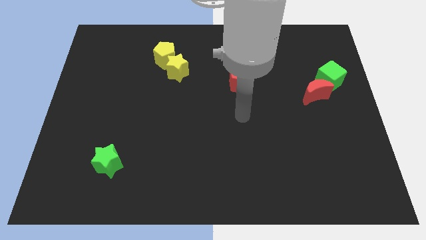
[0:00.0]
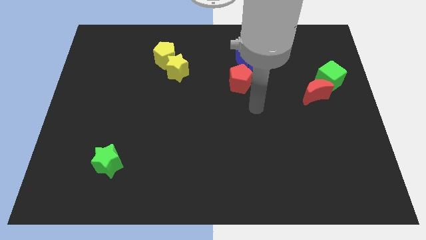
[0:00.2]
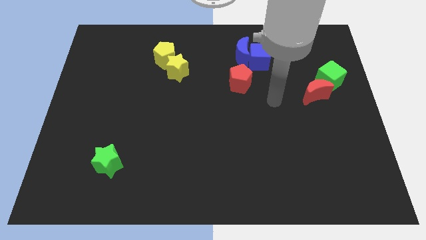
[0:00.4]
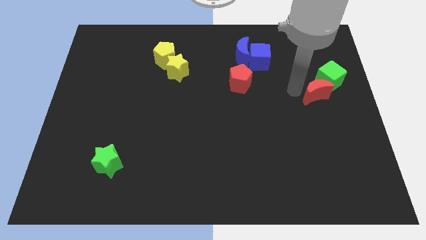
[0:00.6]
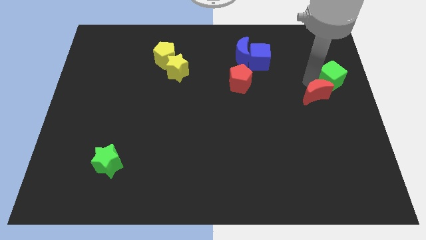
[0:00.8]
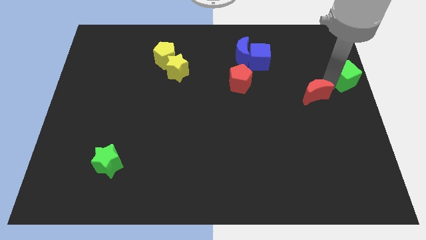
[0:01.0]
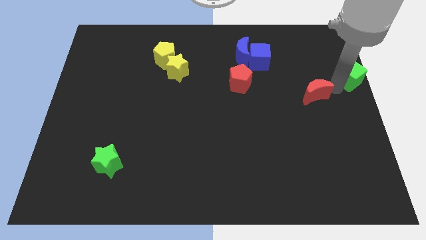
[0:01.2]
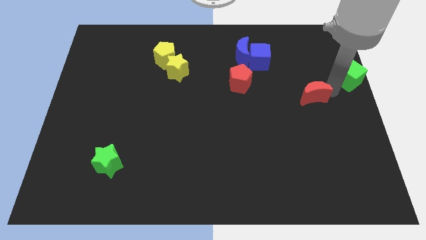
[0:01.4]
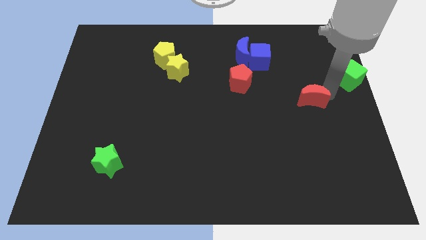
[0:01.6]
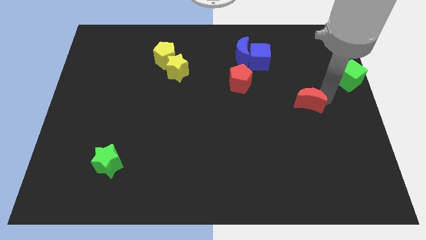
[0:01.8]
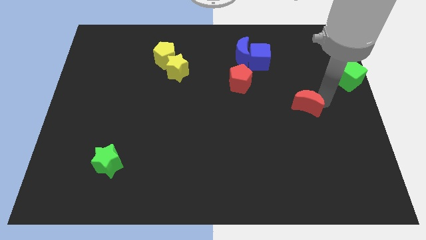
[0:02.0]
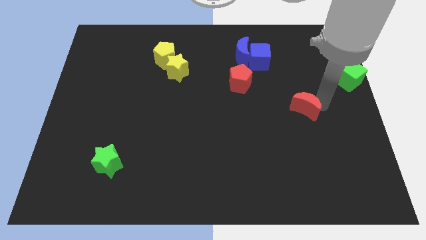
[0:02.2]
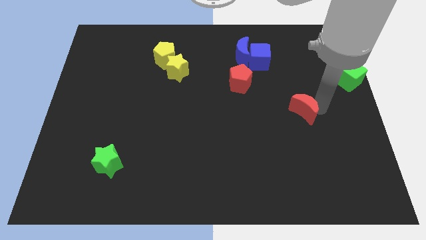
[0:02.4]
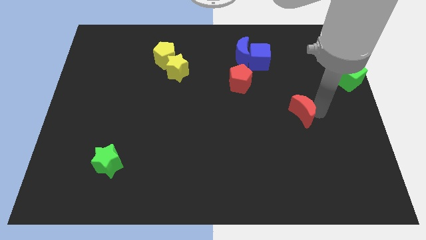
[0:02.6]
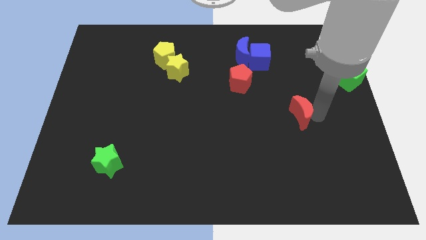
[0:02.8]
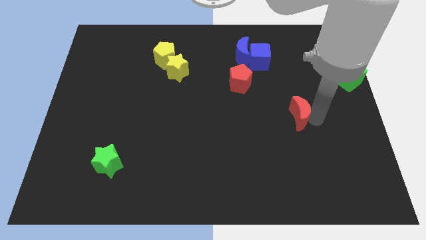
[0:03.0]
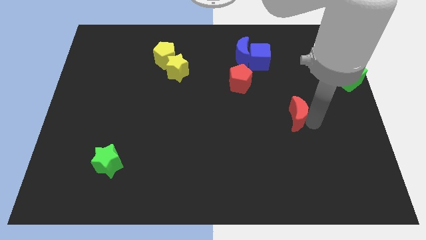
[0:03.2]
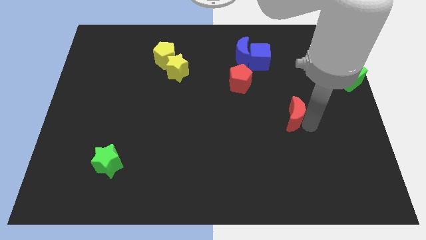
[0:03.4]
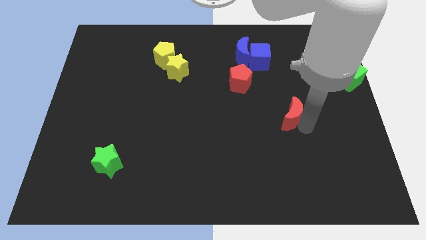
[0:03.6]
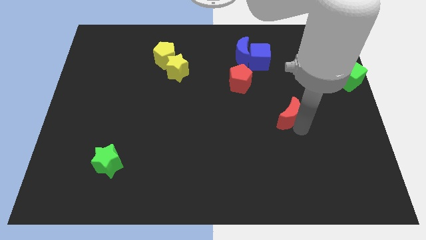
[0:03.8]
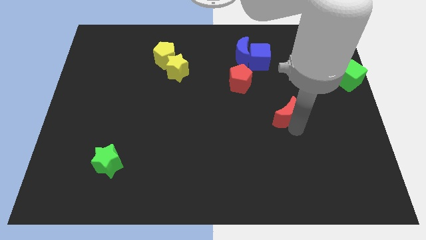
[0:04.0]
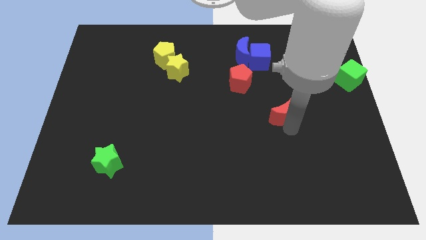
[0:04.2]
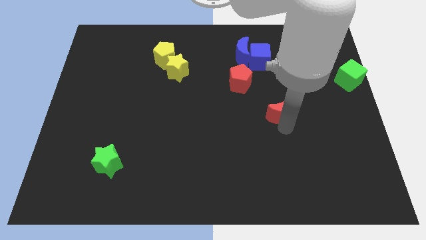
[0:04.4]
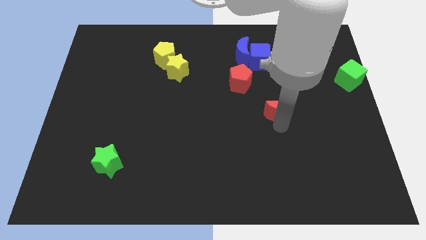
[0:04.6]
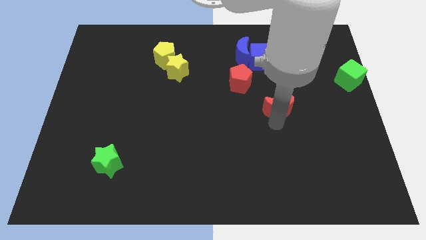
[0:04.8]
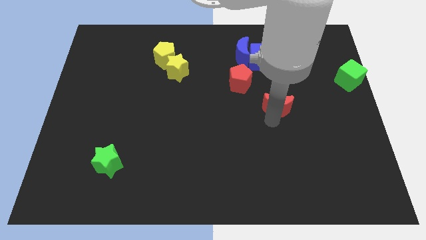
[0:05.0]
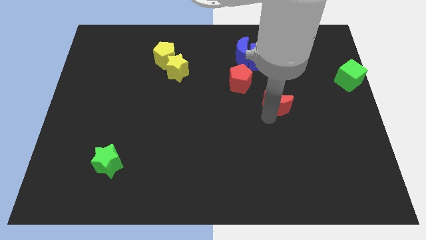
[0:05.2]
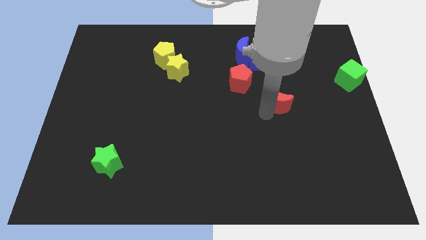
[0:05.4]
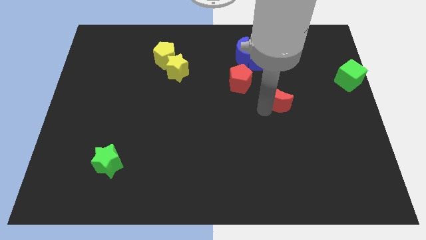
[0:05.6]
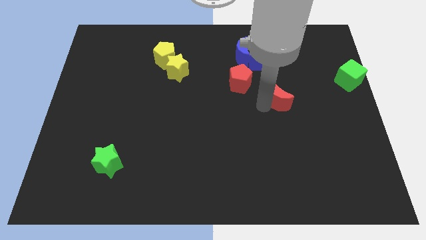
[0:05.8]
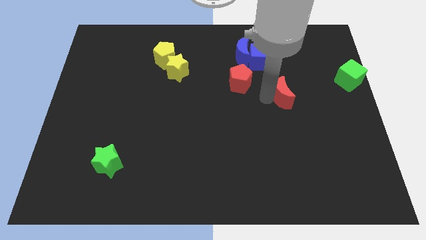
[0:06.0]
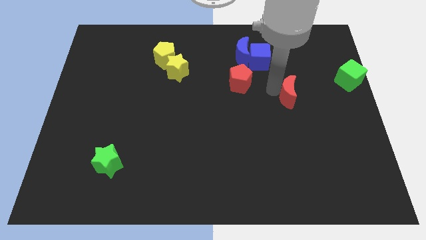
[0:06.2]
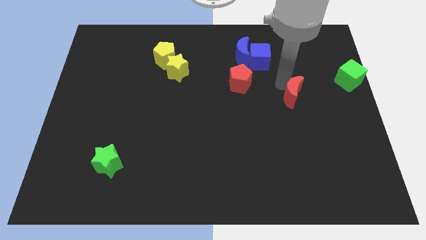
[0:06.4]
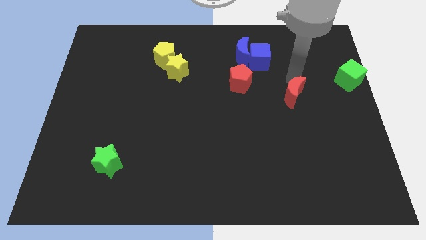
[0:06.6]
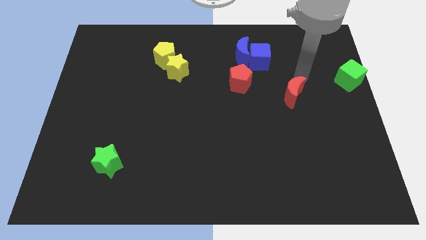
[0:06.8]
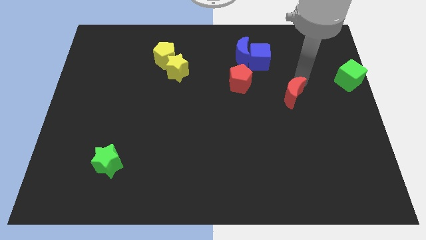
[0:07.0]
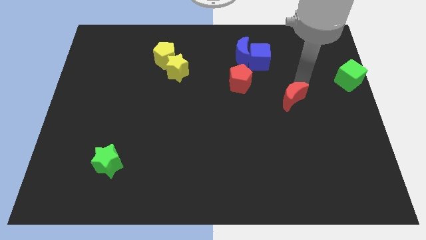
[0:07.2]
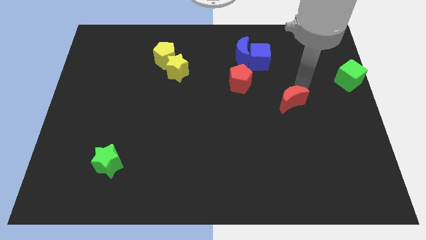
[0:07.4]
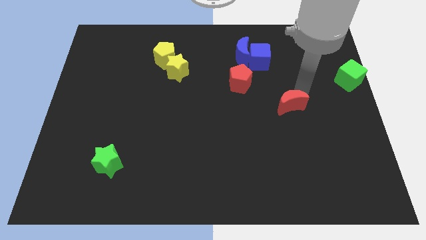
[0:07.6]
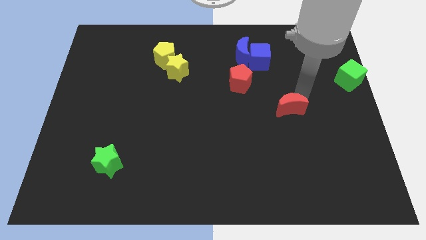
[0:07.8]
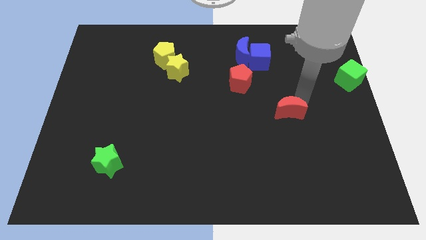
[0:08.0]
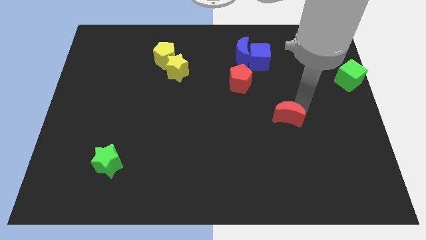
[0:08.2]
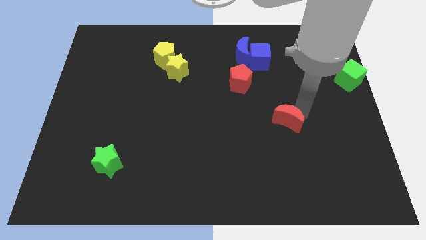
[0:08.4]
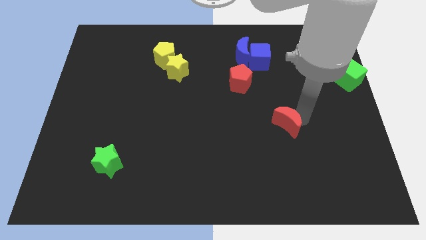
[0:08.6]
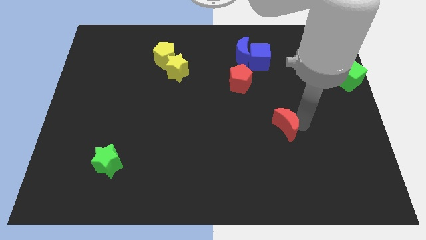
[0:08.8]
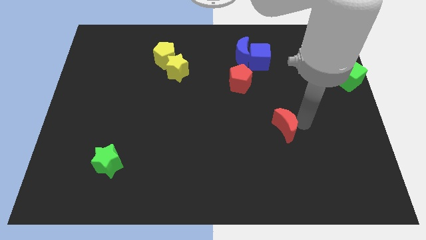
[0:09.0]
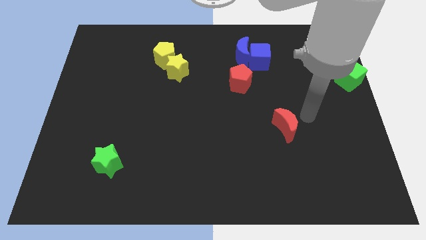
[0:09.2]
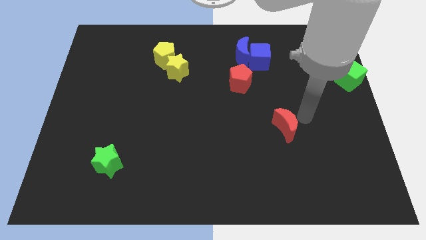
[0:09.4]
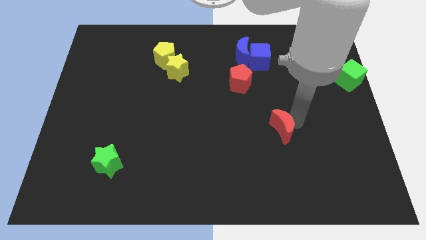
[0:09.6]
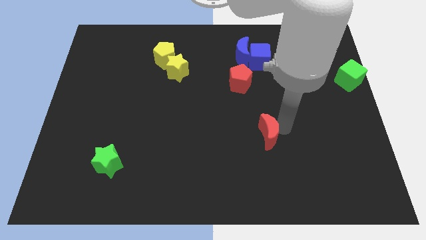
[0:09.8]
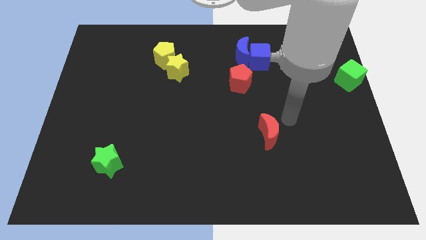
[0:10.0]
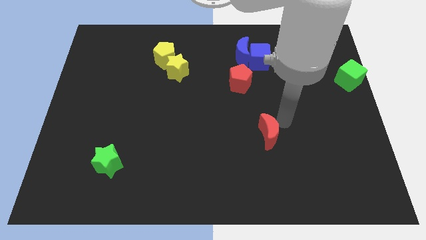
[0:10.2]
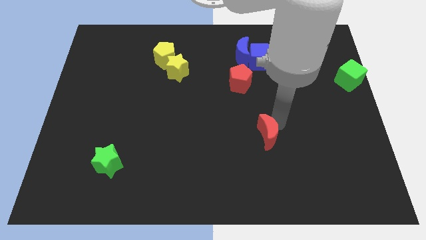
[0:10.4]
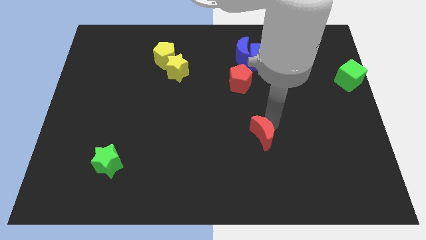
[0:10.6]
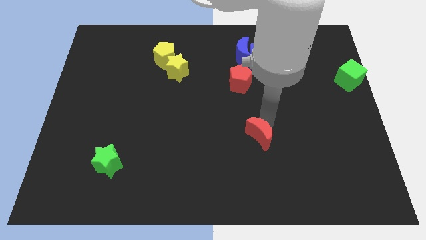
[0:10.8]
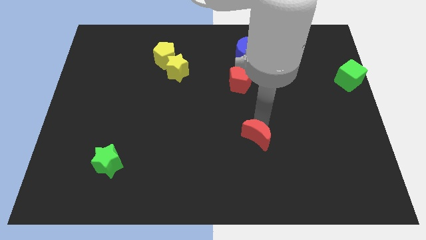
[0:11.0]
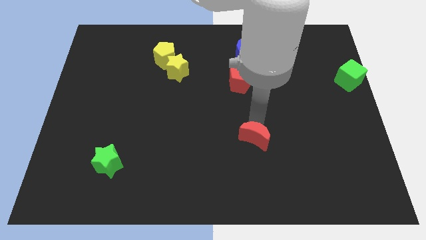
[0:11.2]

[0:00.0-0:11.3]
move the red moon down and then to the left

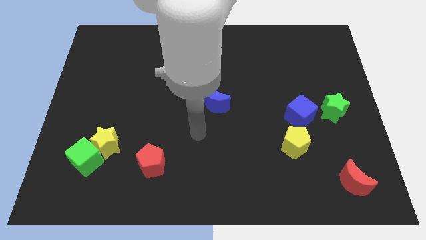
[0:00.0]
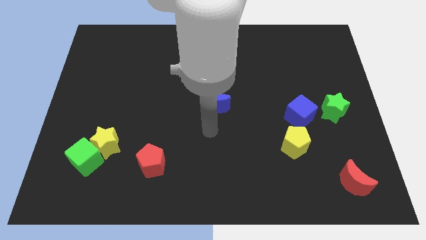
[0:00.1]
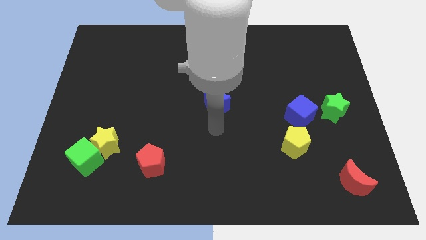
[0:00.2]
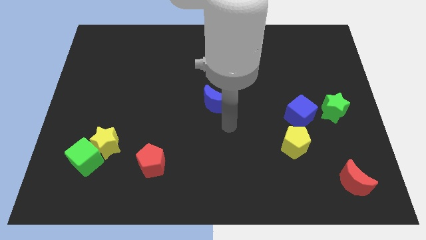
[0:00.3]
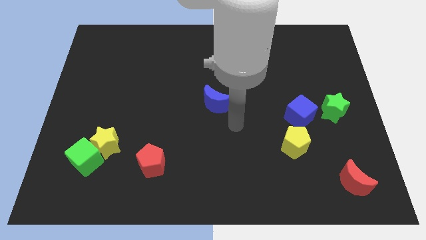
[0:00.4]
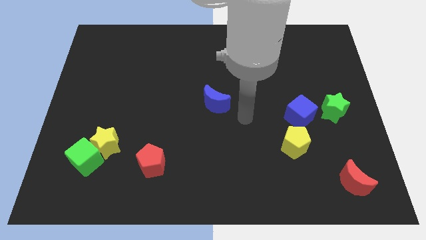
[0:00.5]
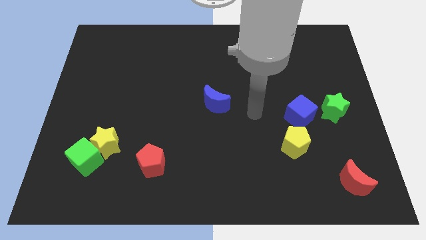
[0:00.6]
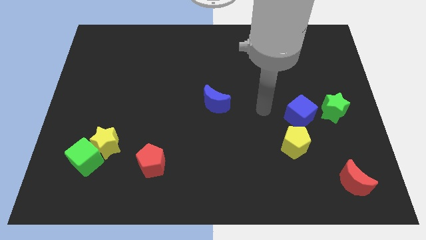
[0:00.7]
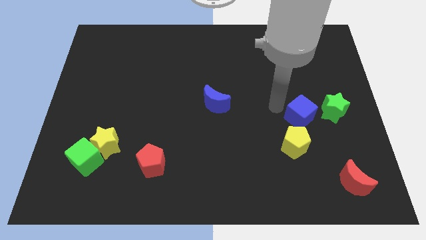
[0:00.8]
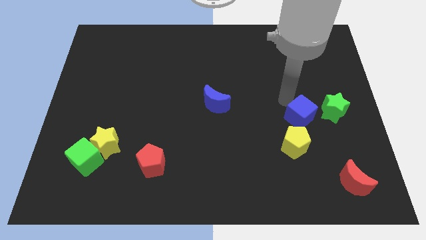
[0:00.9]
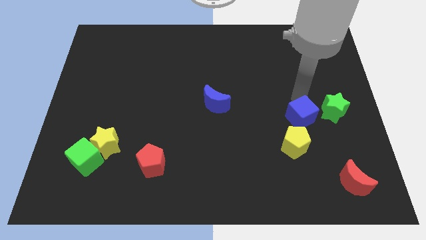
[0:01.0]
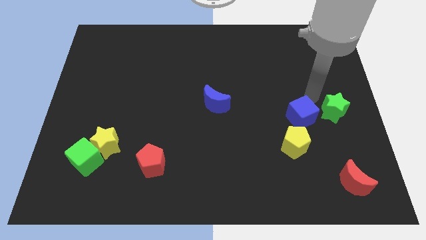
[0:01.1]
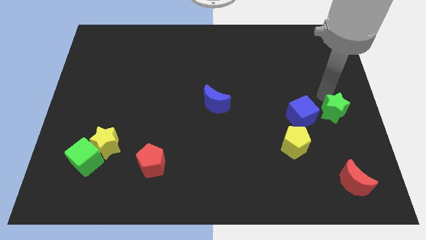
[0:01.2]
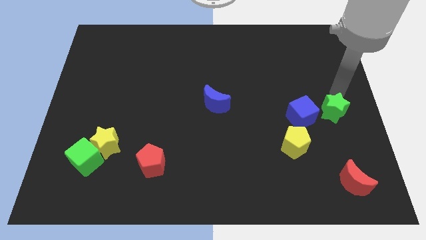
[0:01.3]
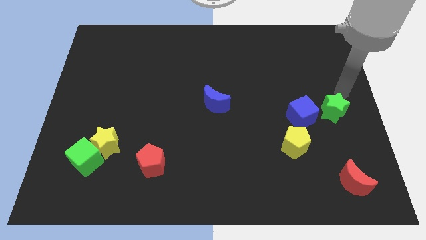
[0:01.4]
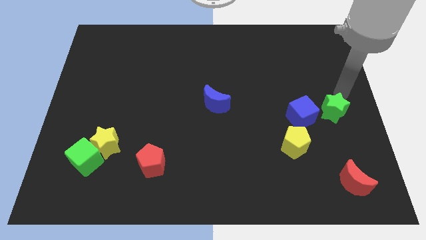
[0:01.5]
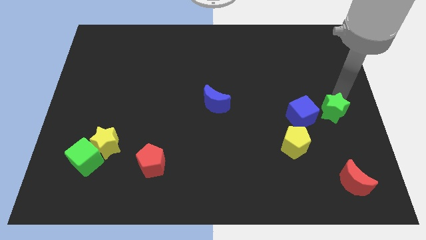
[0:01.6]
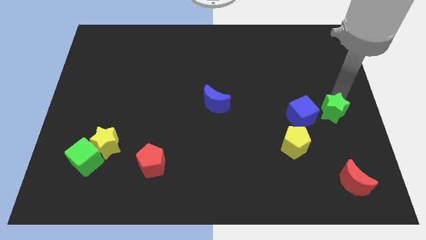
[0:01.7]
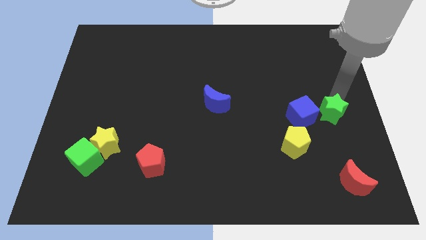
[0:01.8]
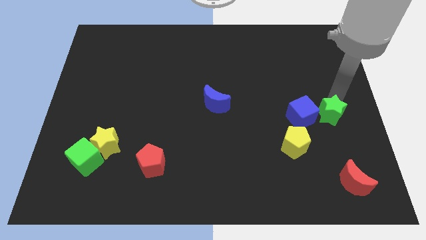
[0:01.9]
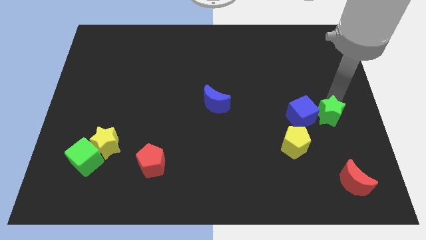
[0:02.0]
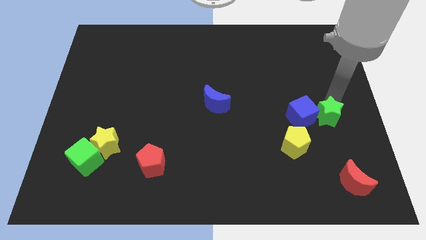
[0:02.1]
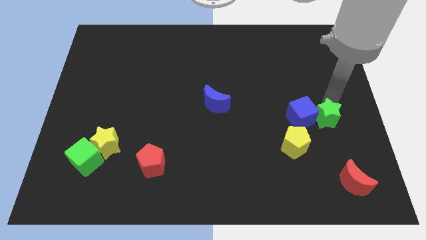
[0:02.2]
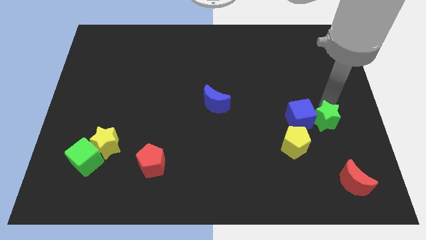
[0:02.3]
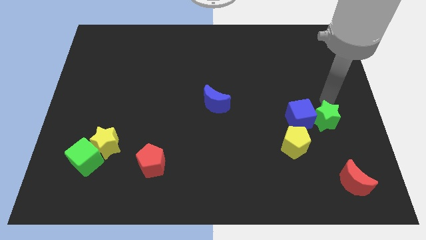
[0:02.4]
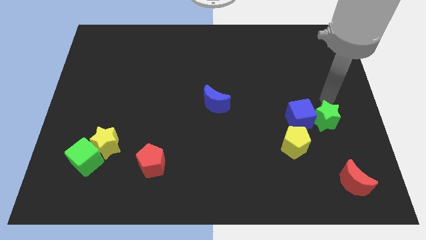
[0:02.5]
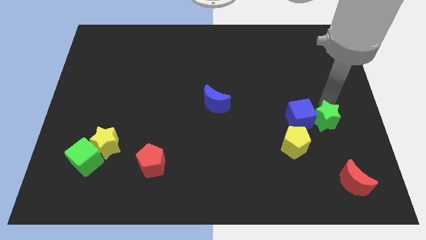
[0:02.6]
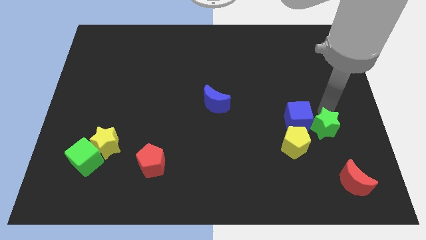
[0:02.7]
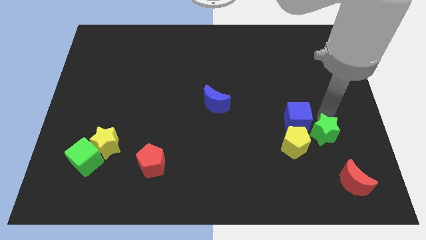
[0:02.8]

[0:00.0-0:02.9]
push the green star a little down and to the left
